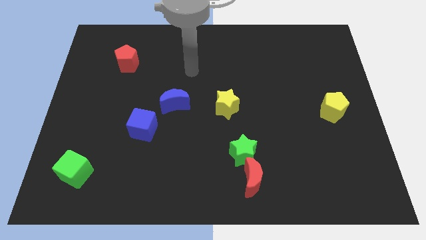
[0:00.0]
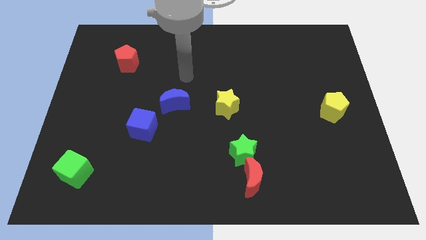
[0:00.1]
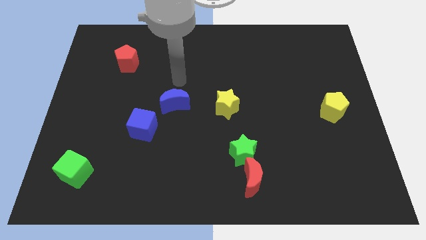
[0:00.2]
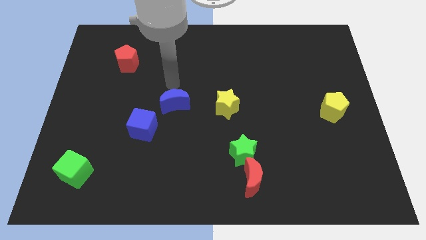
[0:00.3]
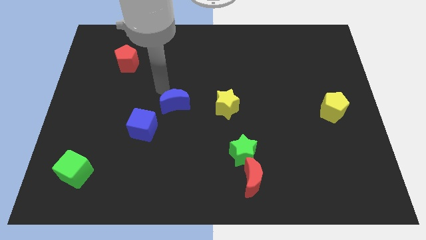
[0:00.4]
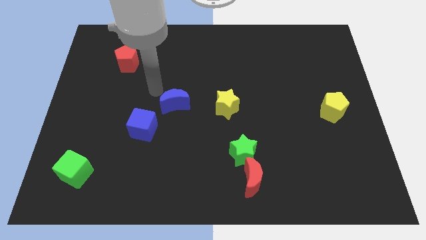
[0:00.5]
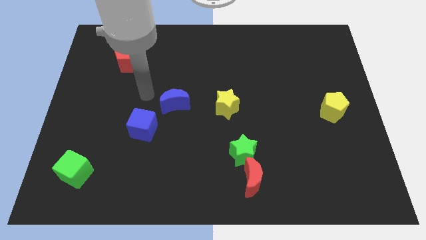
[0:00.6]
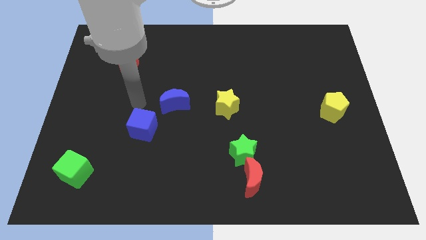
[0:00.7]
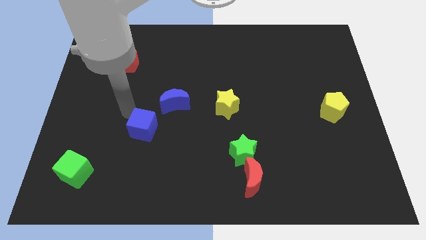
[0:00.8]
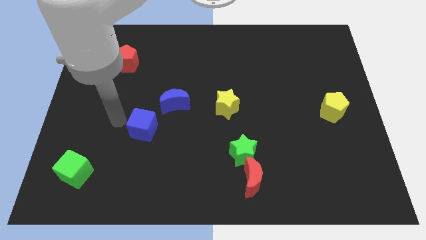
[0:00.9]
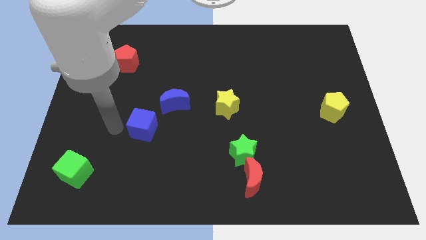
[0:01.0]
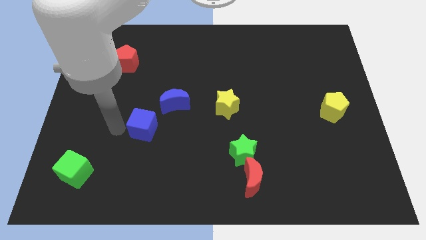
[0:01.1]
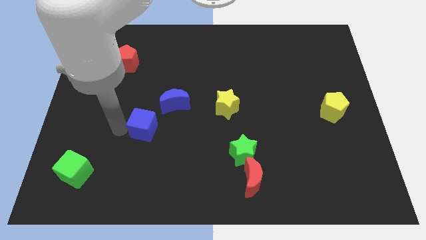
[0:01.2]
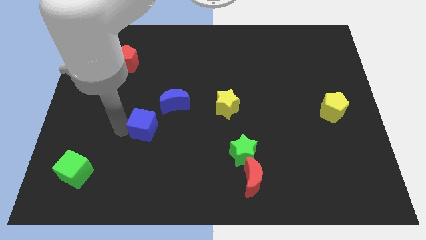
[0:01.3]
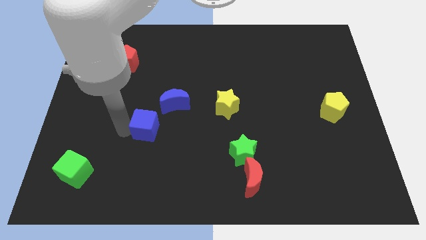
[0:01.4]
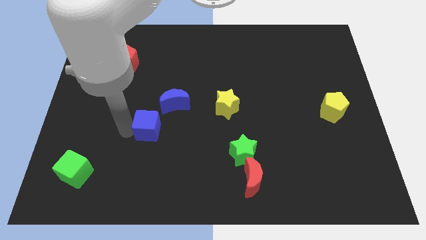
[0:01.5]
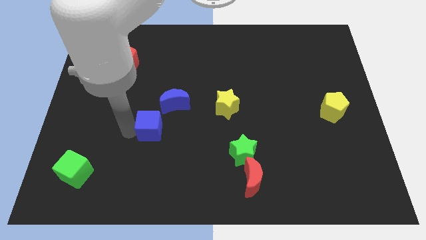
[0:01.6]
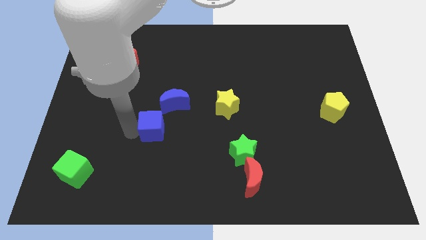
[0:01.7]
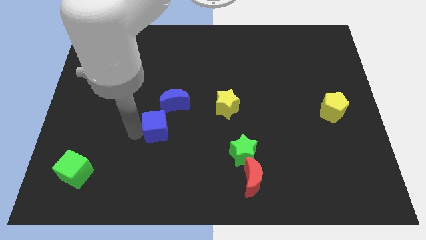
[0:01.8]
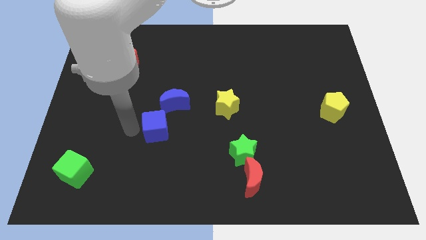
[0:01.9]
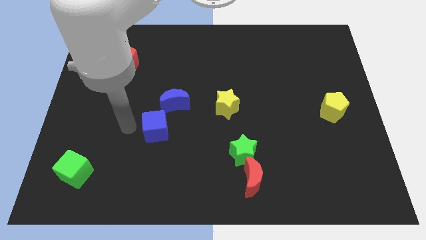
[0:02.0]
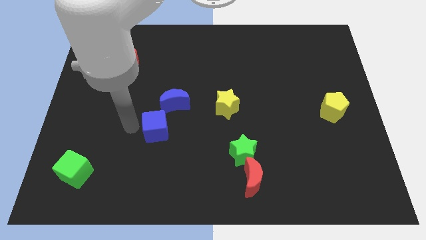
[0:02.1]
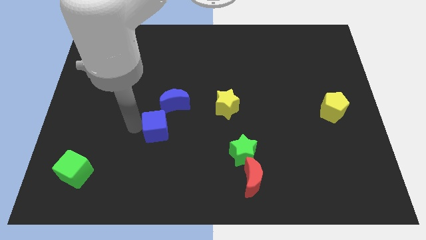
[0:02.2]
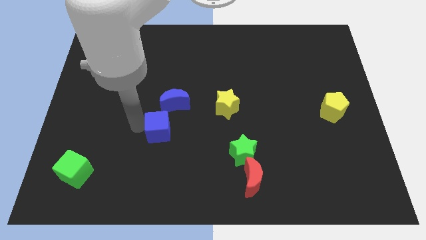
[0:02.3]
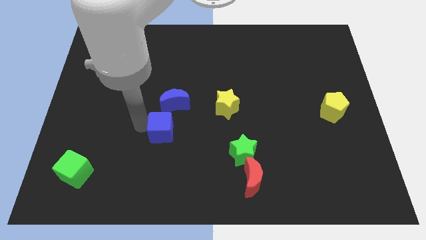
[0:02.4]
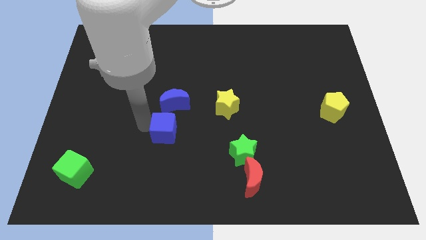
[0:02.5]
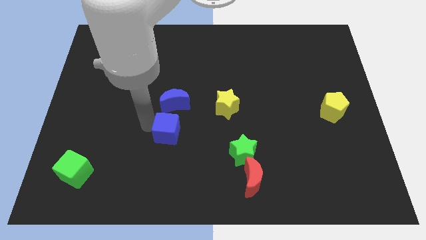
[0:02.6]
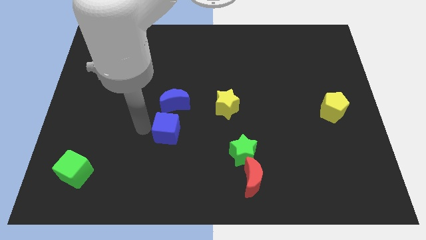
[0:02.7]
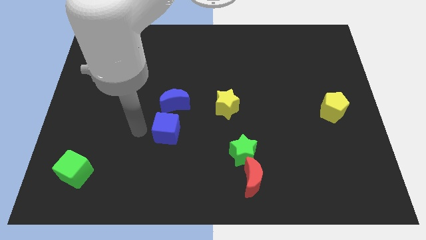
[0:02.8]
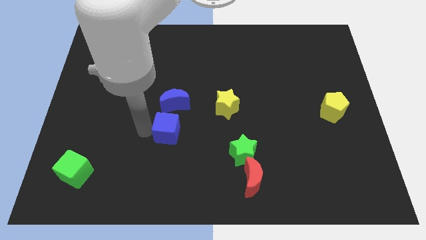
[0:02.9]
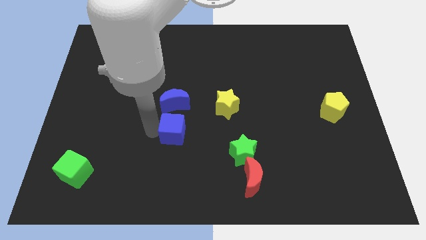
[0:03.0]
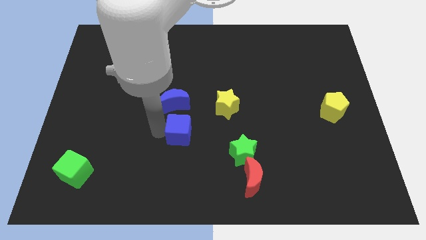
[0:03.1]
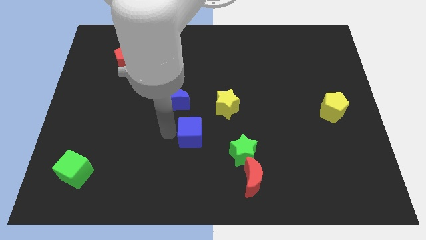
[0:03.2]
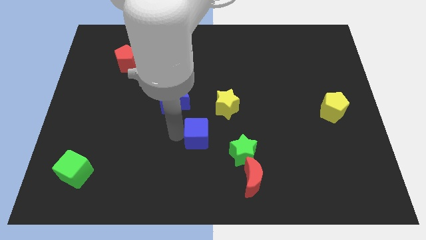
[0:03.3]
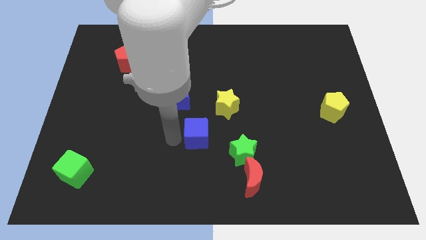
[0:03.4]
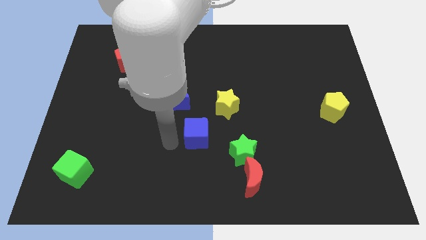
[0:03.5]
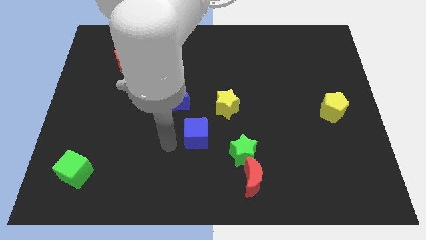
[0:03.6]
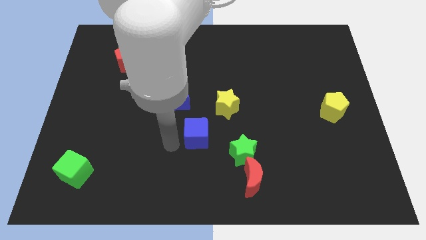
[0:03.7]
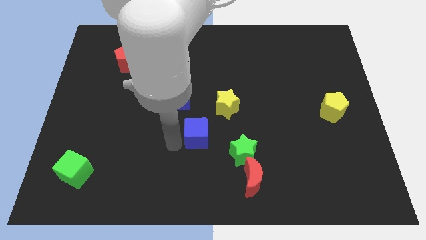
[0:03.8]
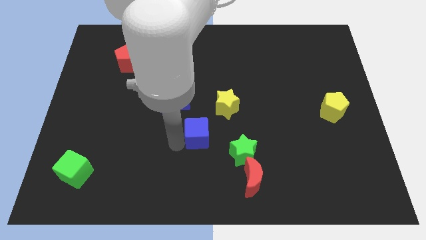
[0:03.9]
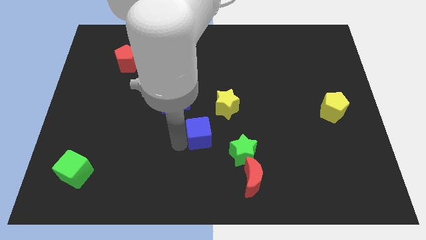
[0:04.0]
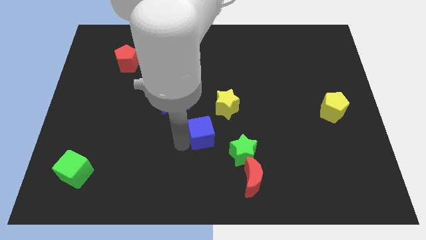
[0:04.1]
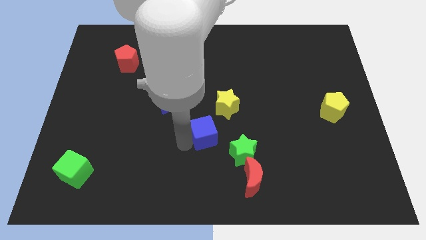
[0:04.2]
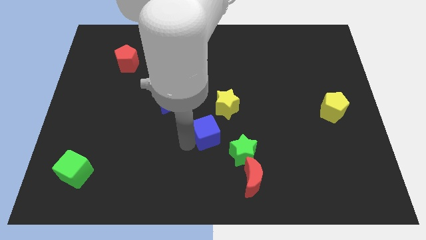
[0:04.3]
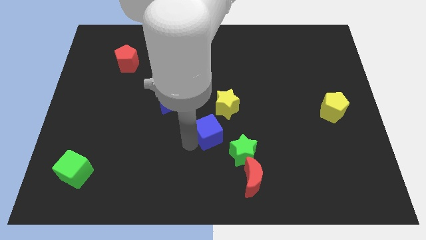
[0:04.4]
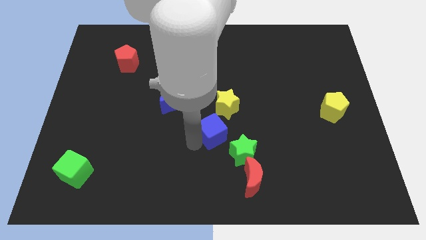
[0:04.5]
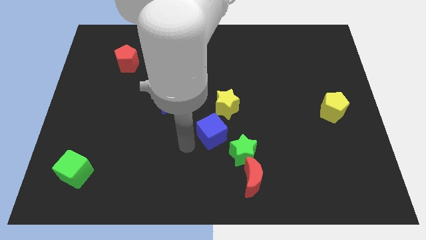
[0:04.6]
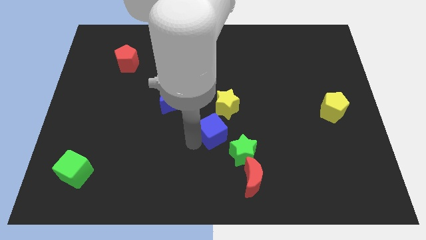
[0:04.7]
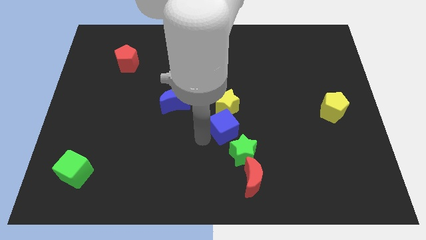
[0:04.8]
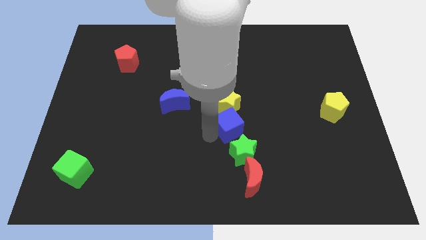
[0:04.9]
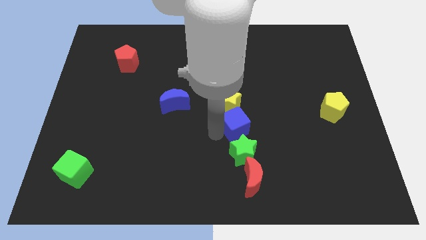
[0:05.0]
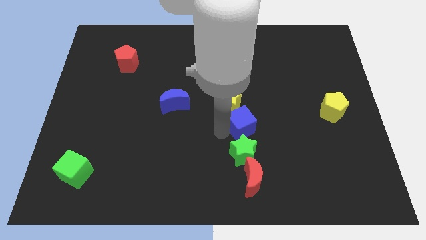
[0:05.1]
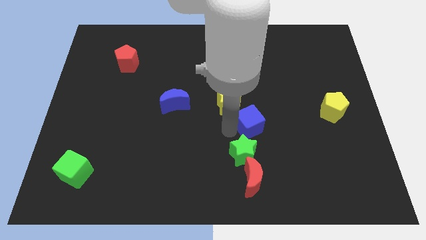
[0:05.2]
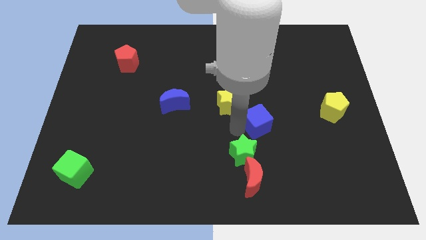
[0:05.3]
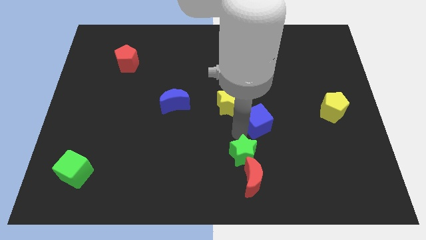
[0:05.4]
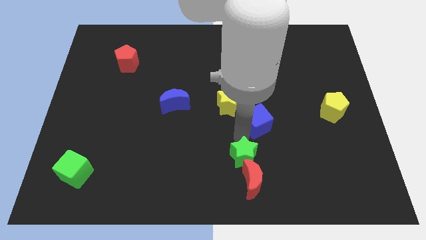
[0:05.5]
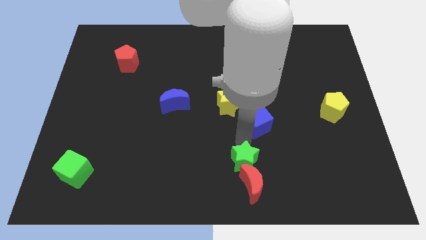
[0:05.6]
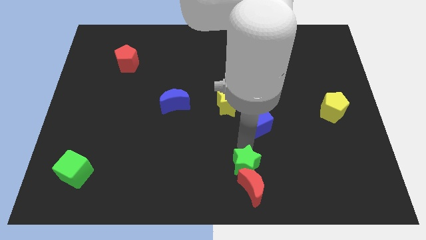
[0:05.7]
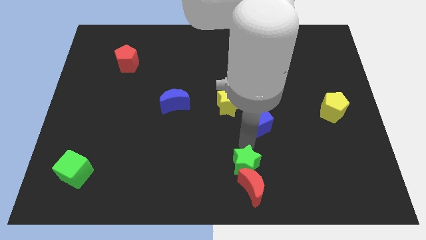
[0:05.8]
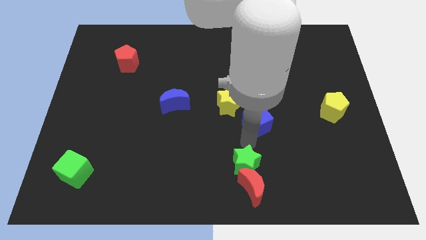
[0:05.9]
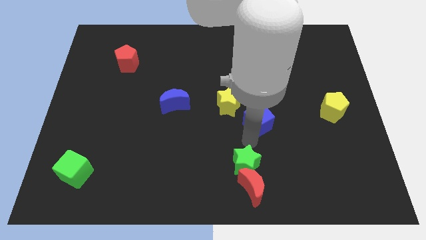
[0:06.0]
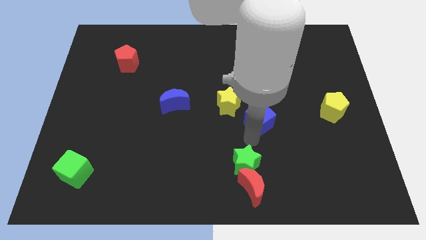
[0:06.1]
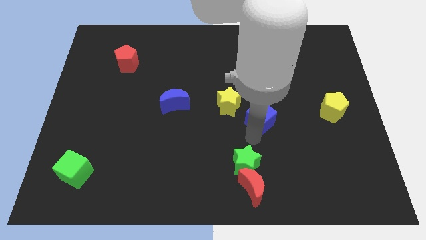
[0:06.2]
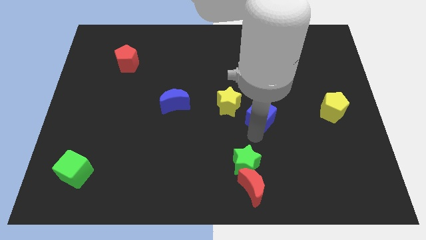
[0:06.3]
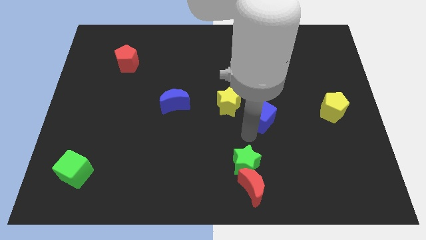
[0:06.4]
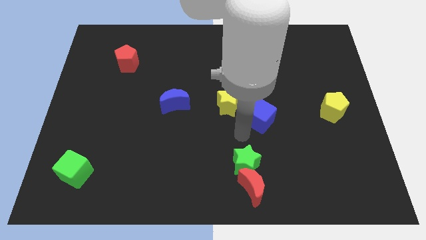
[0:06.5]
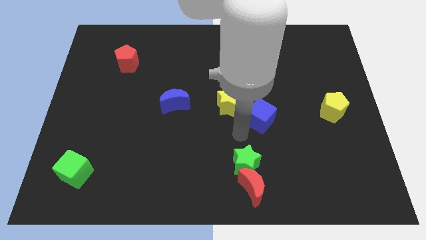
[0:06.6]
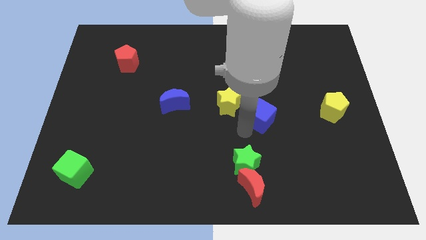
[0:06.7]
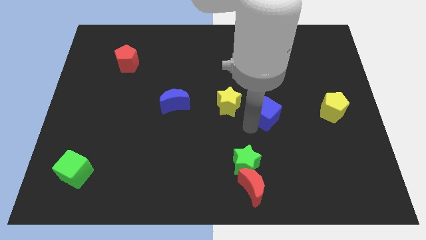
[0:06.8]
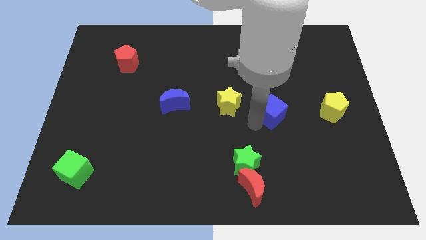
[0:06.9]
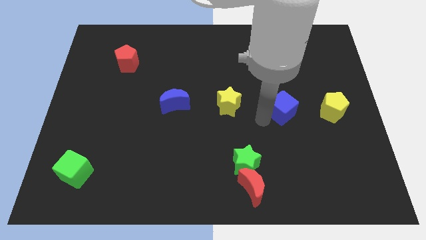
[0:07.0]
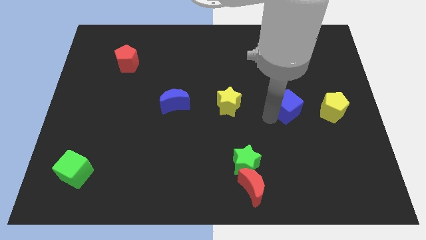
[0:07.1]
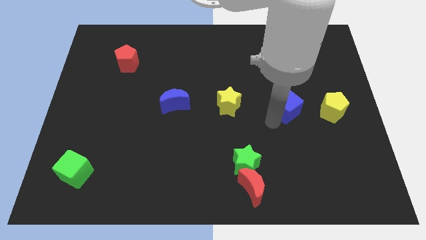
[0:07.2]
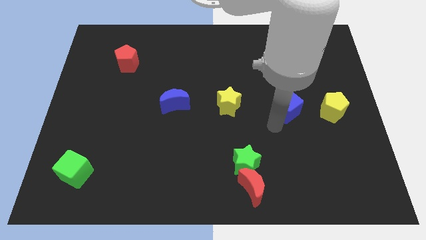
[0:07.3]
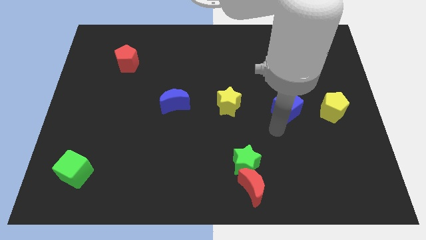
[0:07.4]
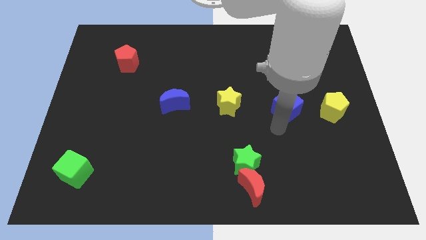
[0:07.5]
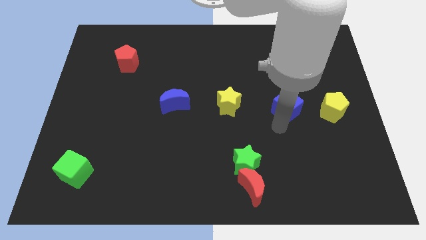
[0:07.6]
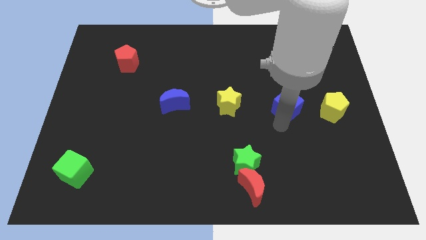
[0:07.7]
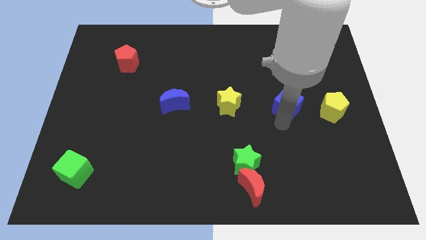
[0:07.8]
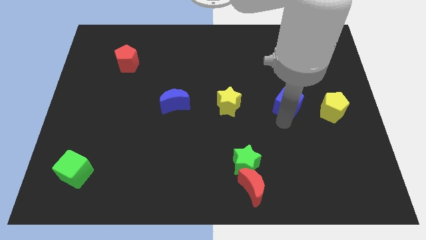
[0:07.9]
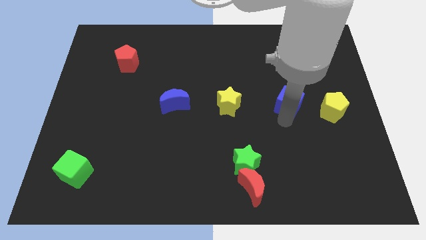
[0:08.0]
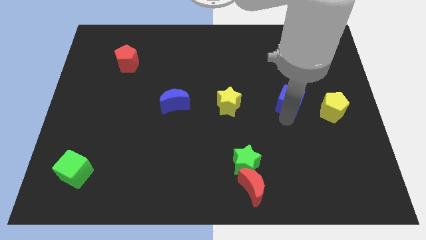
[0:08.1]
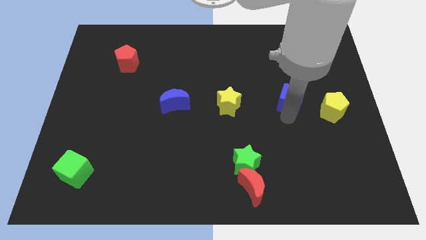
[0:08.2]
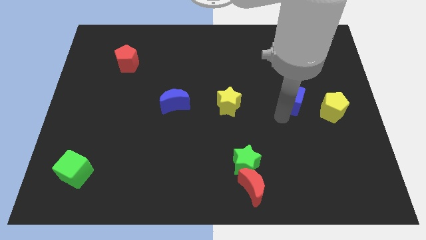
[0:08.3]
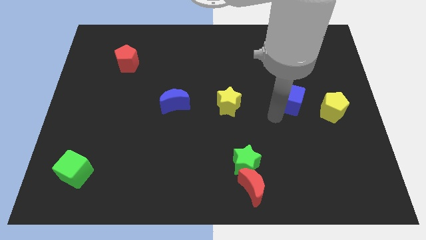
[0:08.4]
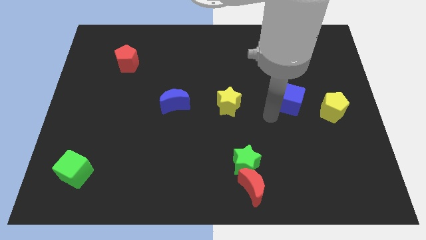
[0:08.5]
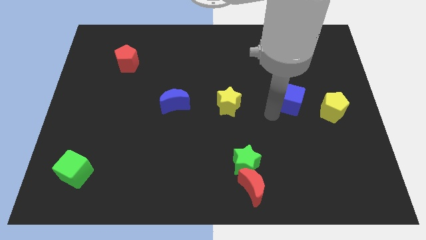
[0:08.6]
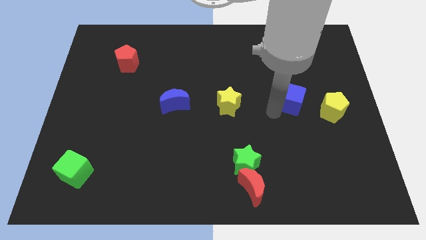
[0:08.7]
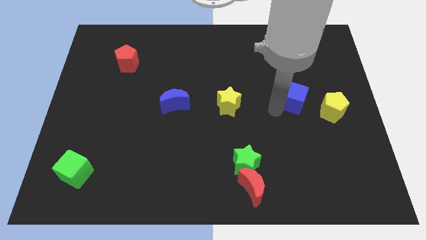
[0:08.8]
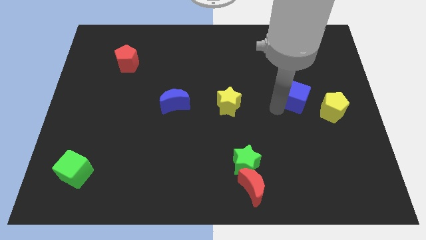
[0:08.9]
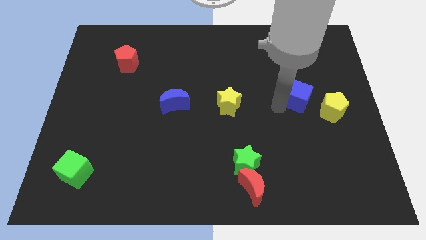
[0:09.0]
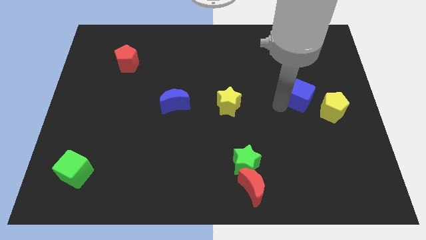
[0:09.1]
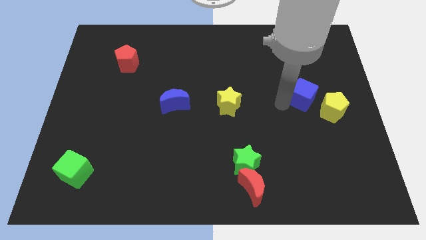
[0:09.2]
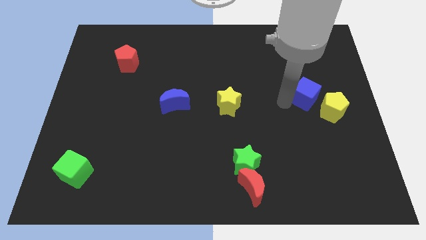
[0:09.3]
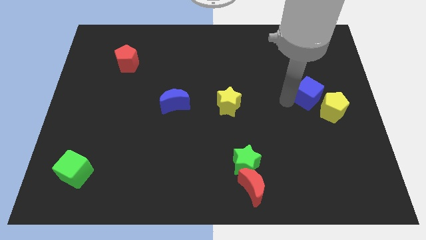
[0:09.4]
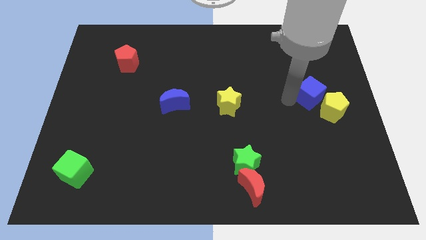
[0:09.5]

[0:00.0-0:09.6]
move the blue cube to the top side of the yellow pentagon
